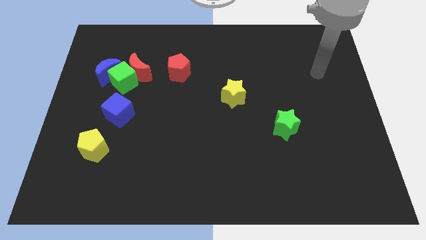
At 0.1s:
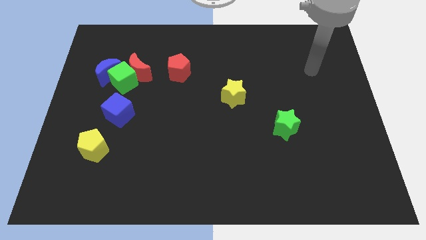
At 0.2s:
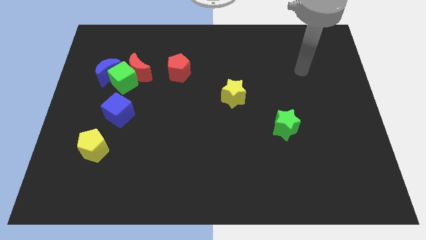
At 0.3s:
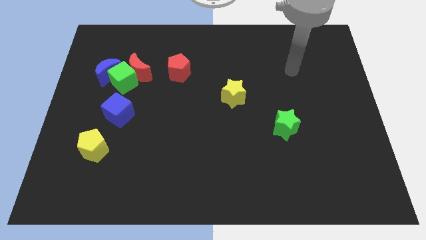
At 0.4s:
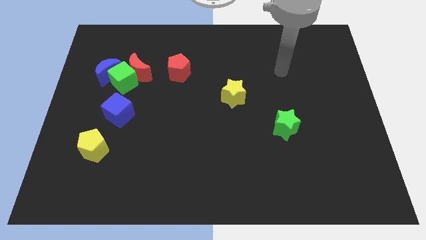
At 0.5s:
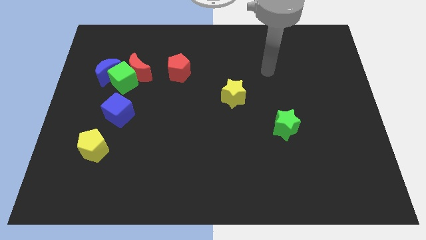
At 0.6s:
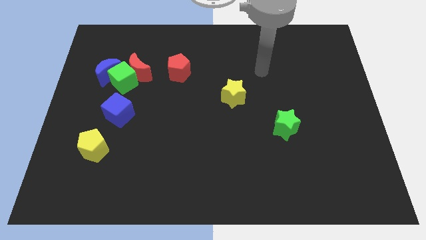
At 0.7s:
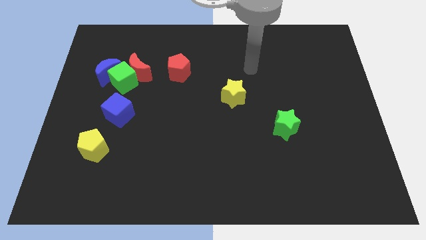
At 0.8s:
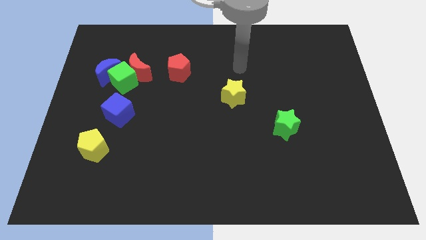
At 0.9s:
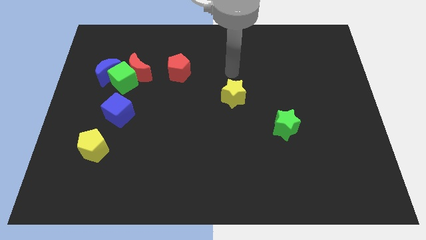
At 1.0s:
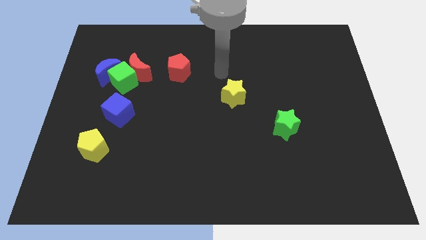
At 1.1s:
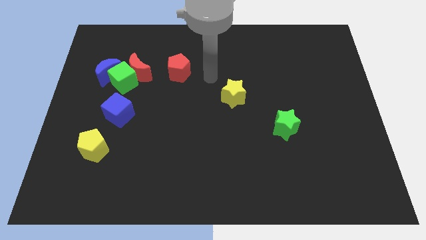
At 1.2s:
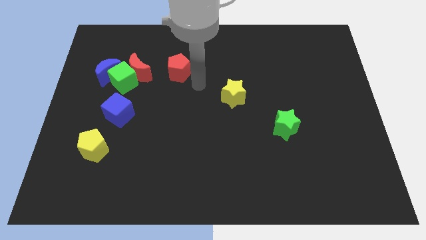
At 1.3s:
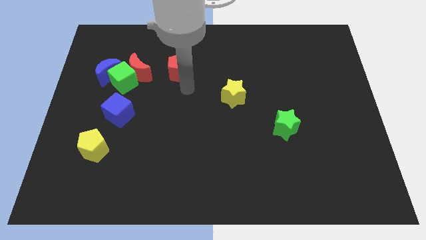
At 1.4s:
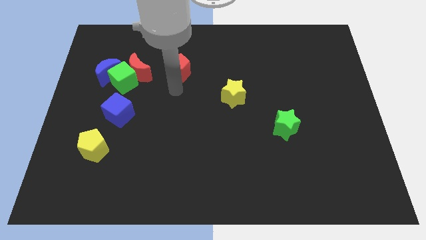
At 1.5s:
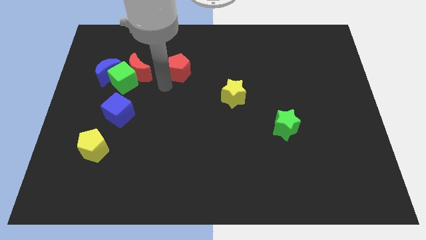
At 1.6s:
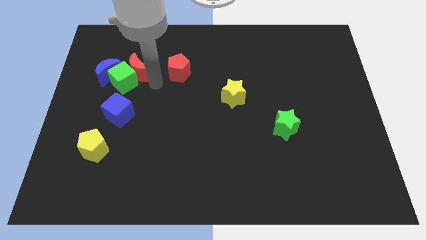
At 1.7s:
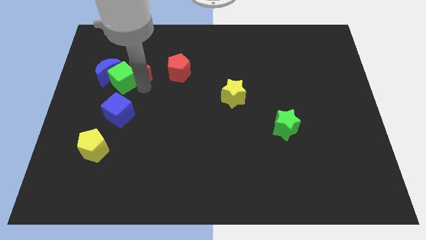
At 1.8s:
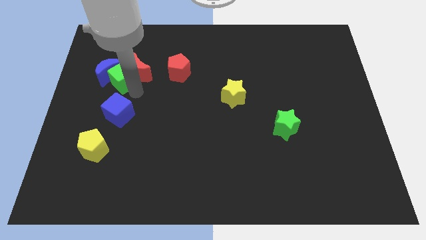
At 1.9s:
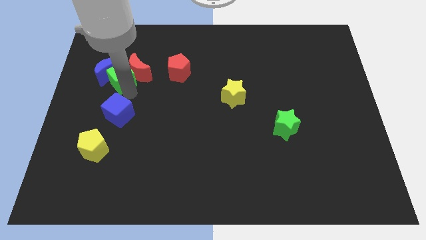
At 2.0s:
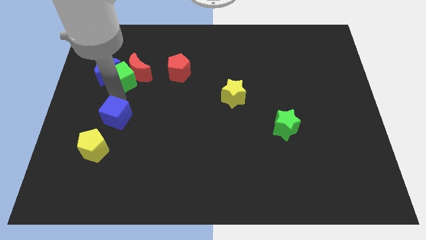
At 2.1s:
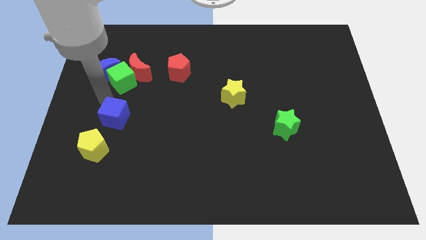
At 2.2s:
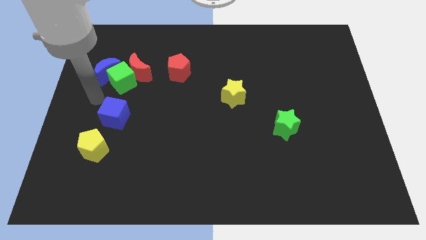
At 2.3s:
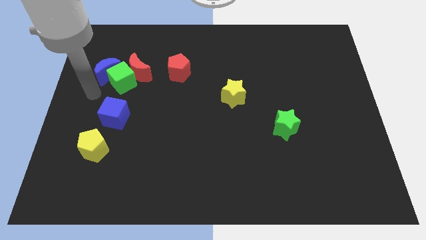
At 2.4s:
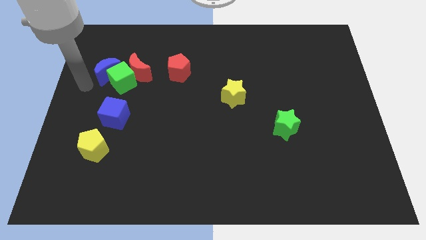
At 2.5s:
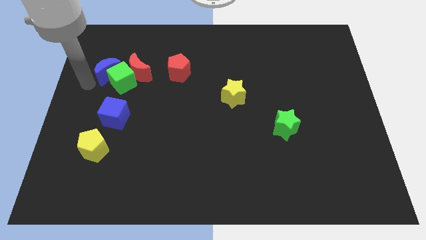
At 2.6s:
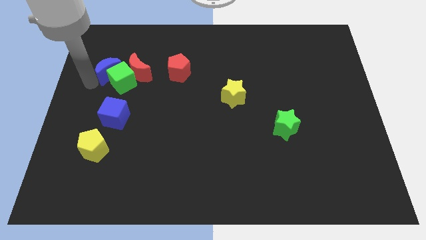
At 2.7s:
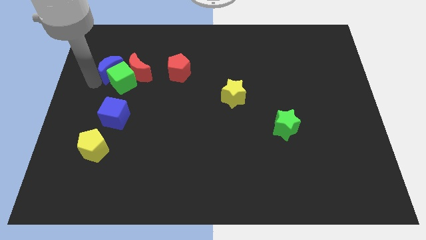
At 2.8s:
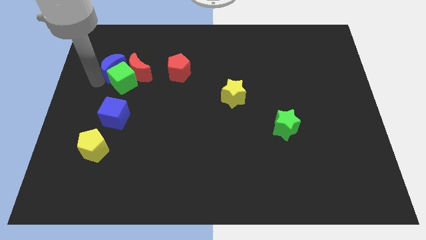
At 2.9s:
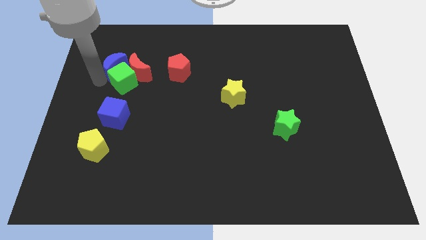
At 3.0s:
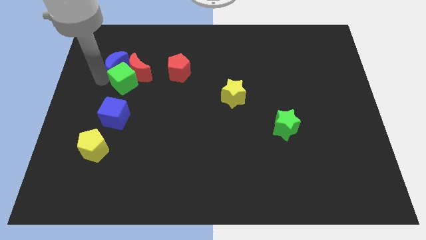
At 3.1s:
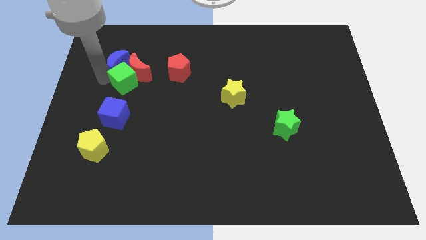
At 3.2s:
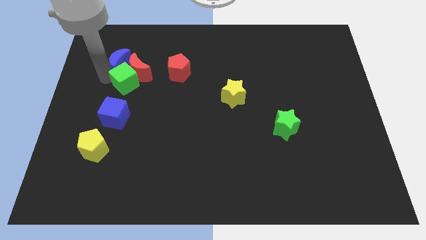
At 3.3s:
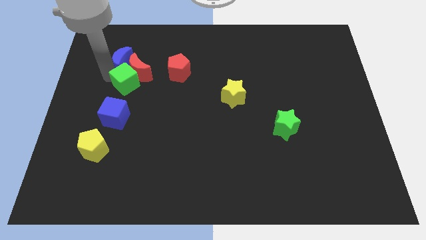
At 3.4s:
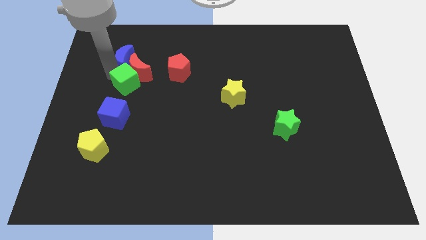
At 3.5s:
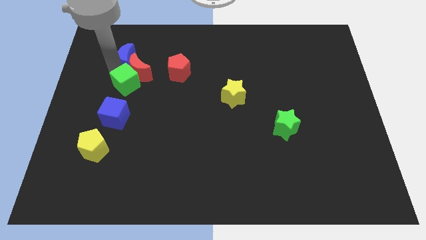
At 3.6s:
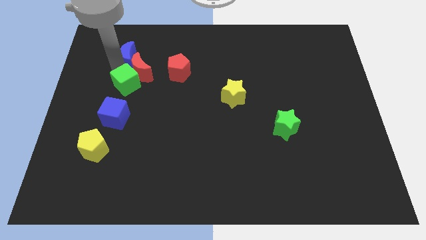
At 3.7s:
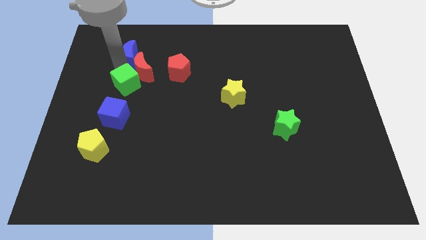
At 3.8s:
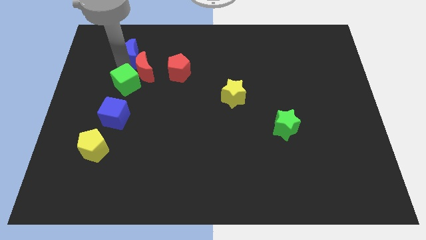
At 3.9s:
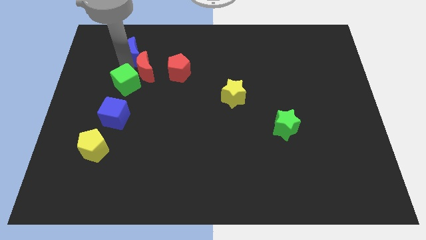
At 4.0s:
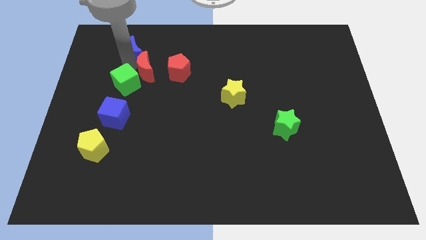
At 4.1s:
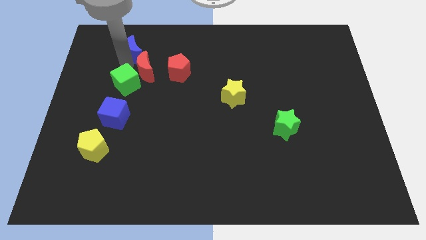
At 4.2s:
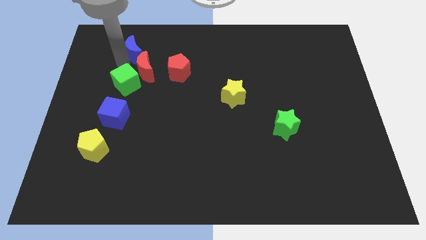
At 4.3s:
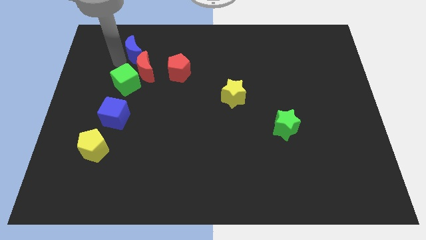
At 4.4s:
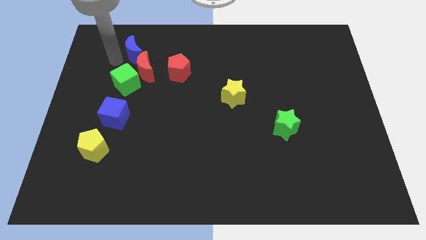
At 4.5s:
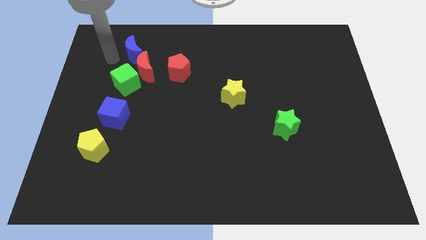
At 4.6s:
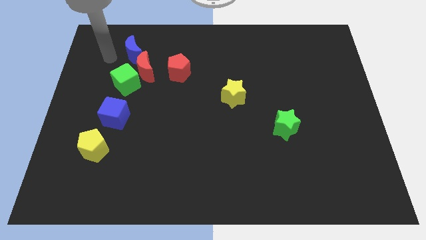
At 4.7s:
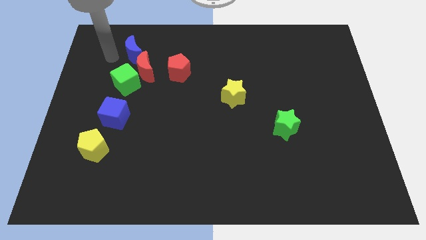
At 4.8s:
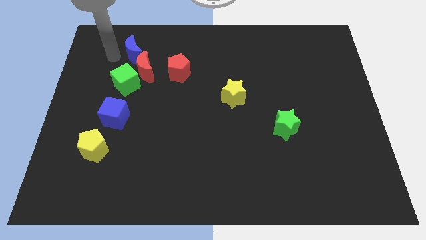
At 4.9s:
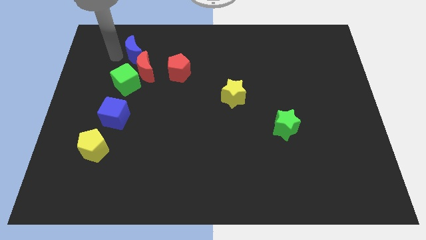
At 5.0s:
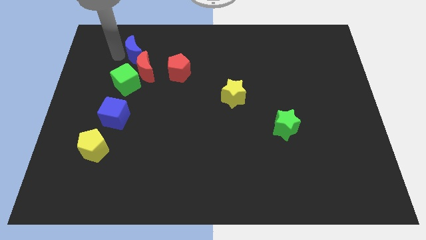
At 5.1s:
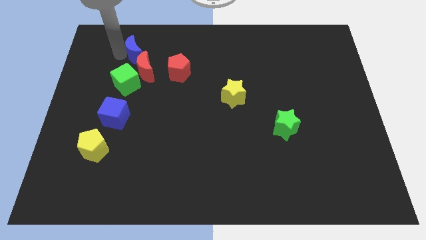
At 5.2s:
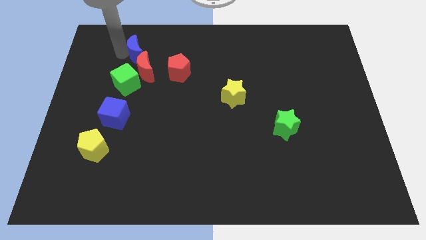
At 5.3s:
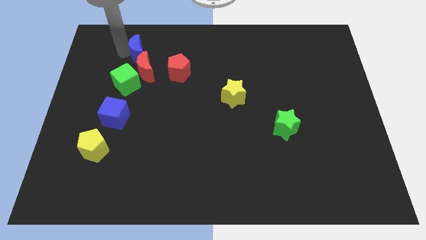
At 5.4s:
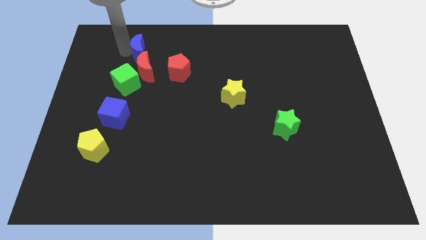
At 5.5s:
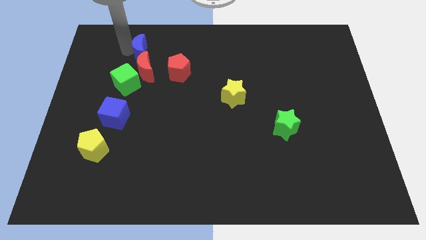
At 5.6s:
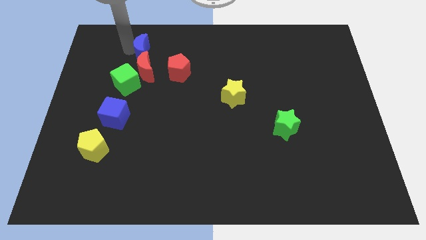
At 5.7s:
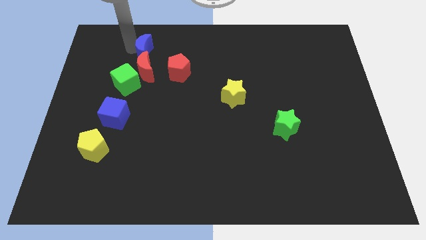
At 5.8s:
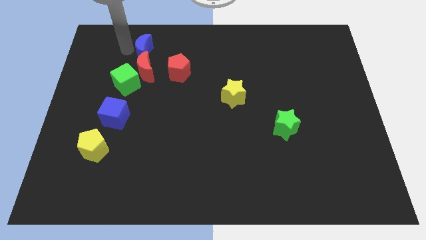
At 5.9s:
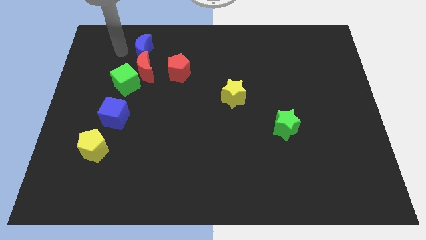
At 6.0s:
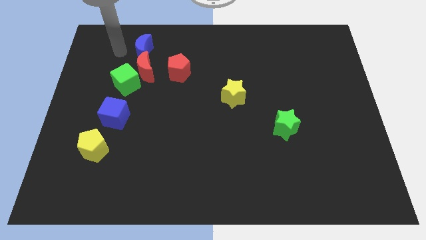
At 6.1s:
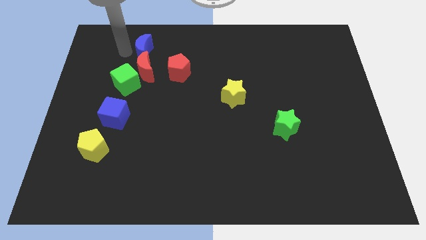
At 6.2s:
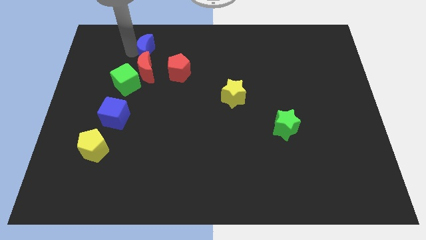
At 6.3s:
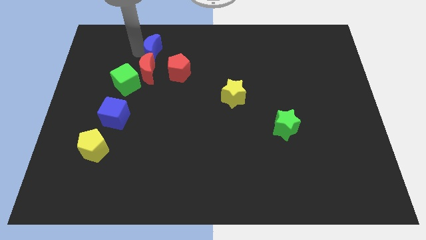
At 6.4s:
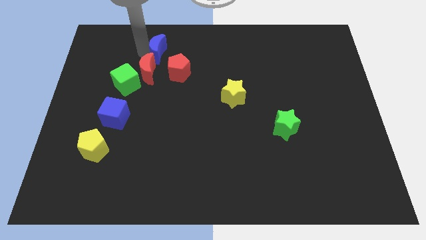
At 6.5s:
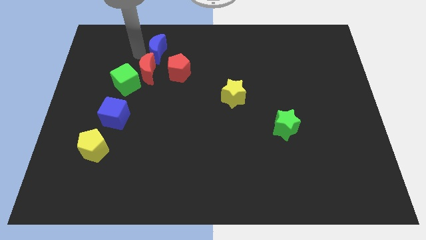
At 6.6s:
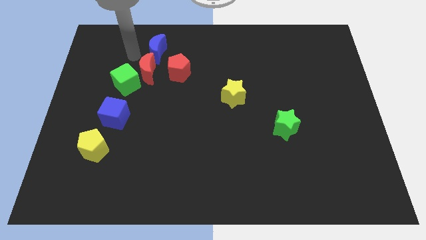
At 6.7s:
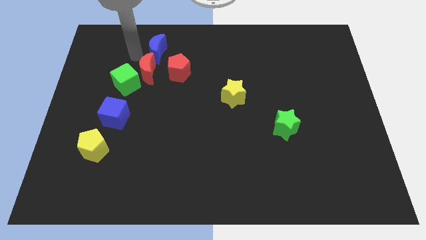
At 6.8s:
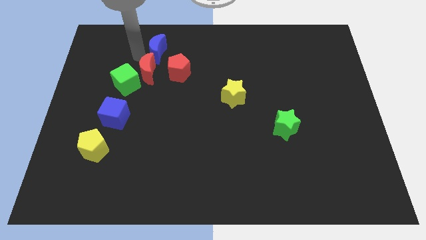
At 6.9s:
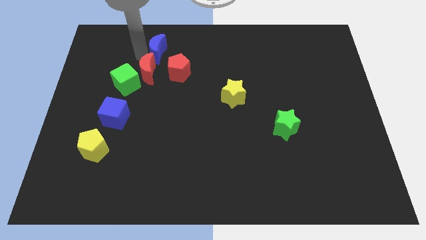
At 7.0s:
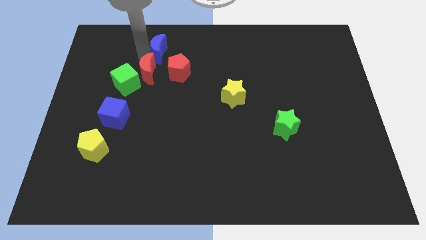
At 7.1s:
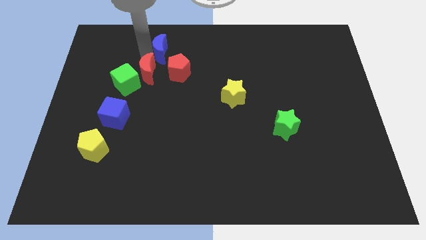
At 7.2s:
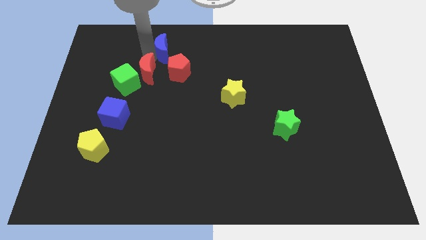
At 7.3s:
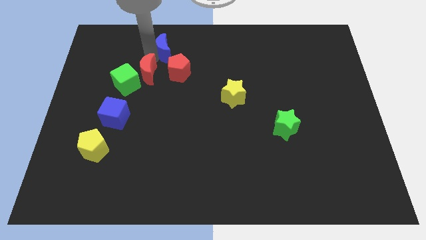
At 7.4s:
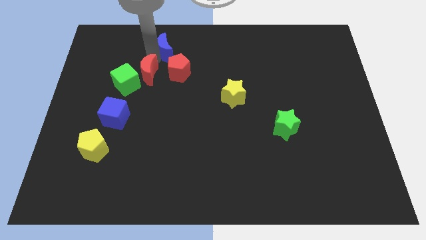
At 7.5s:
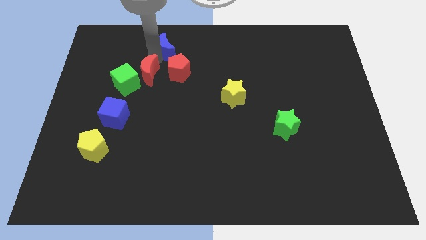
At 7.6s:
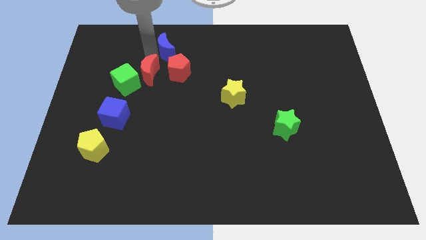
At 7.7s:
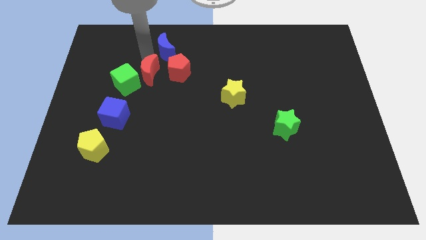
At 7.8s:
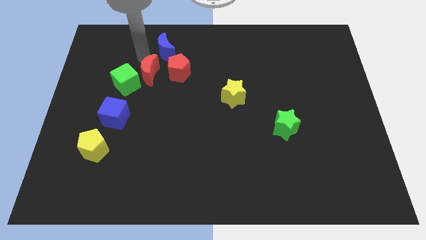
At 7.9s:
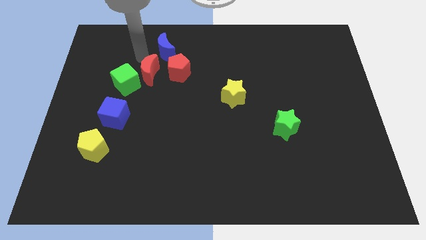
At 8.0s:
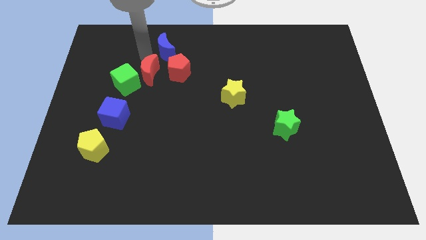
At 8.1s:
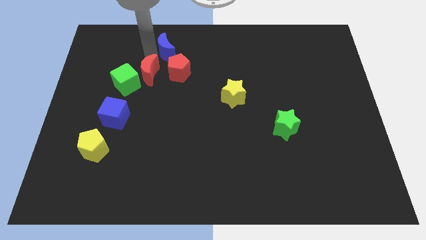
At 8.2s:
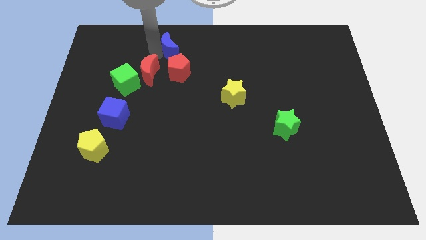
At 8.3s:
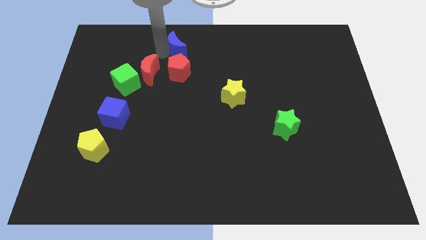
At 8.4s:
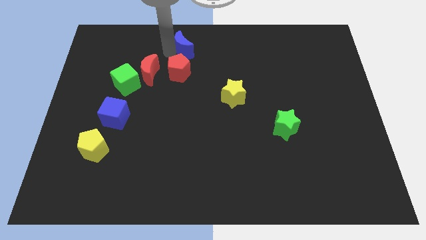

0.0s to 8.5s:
push the blue moon to the top
